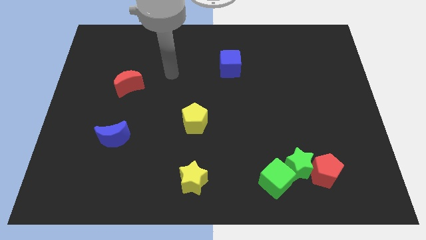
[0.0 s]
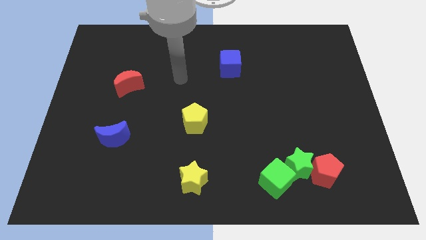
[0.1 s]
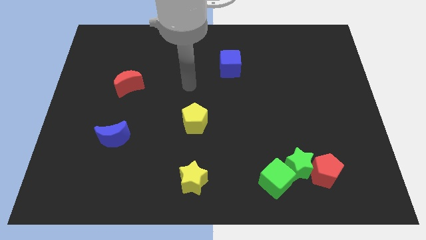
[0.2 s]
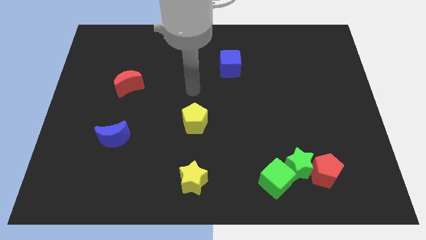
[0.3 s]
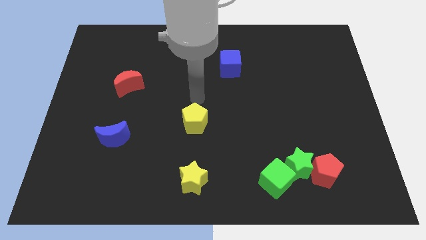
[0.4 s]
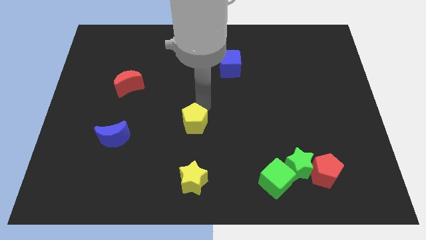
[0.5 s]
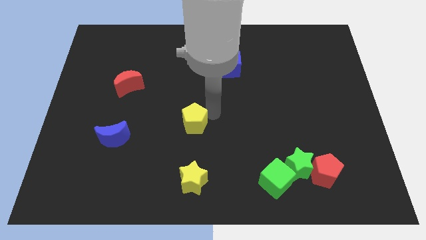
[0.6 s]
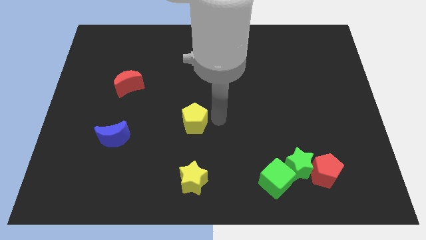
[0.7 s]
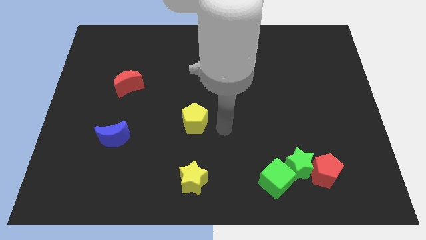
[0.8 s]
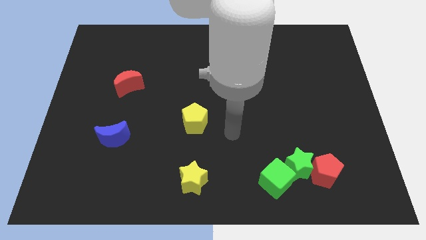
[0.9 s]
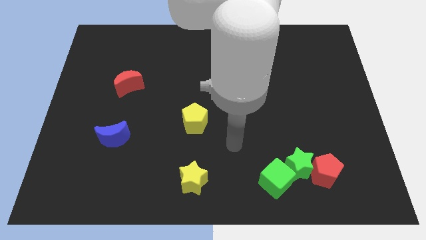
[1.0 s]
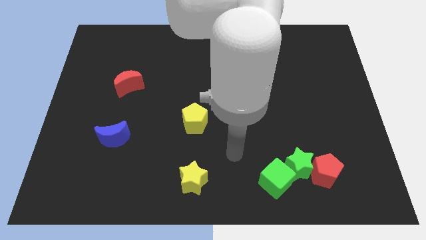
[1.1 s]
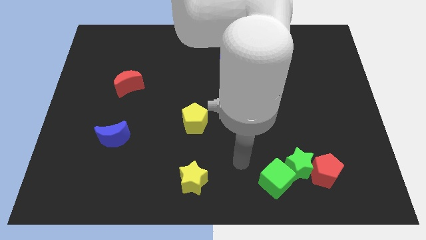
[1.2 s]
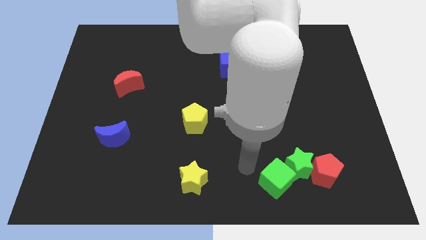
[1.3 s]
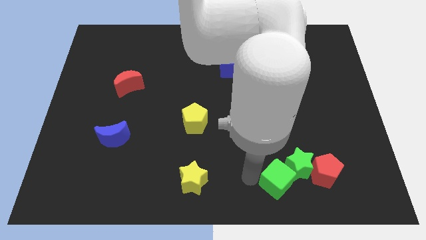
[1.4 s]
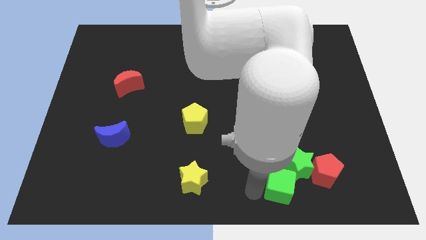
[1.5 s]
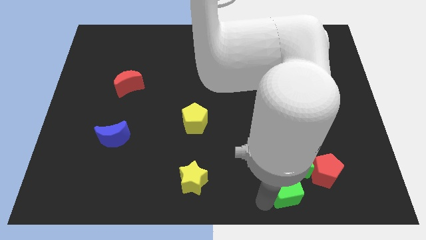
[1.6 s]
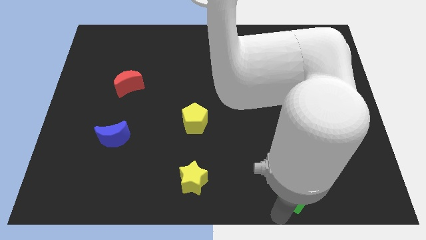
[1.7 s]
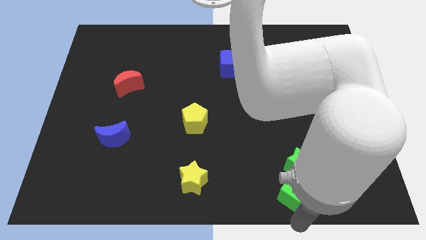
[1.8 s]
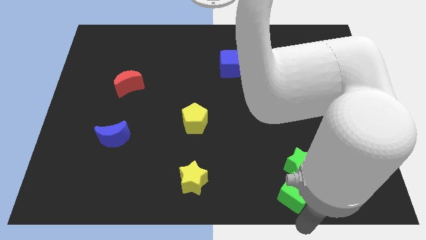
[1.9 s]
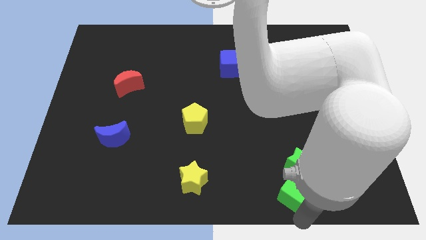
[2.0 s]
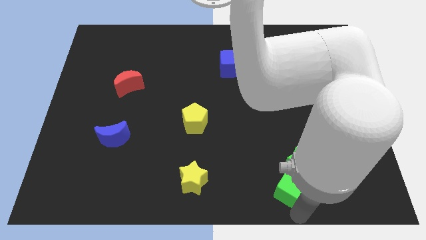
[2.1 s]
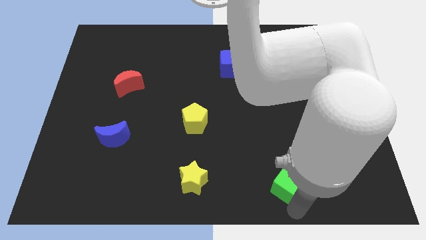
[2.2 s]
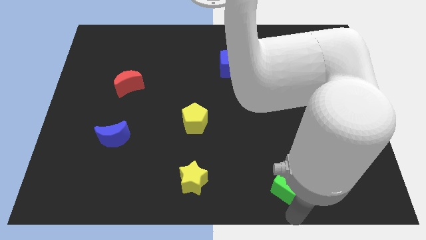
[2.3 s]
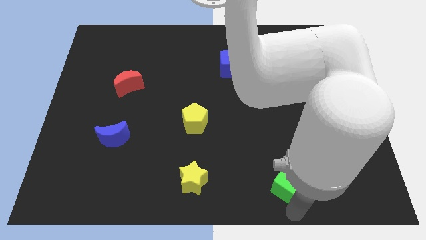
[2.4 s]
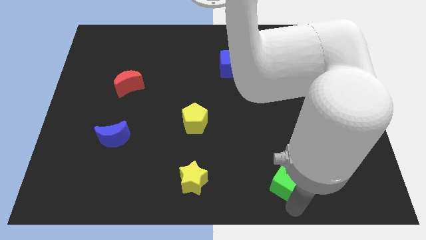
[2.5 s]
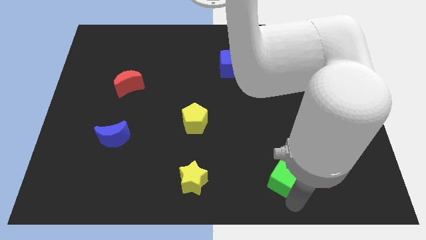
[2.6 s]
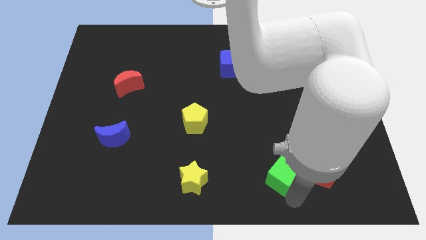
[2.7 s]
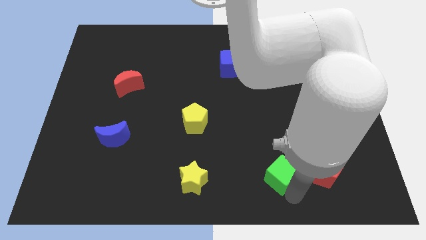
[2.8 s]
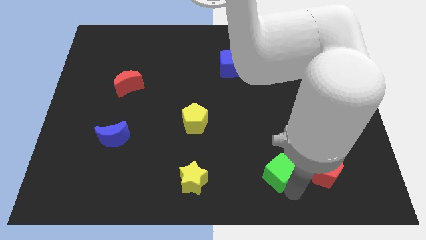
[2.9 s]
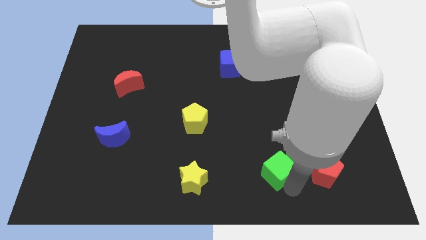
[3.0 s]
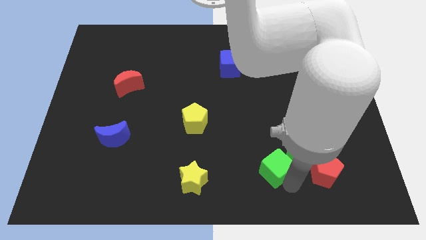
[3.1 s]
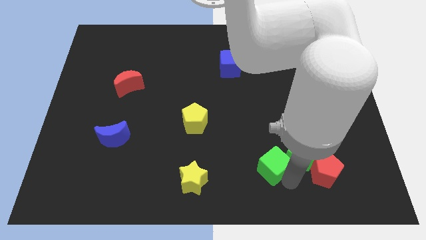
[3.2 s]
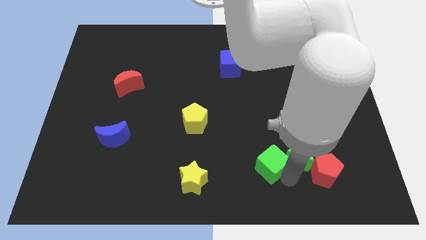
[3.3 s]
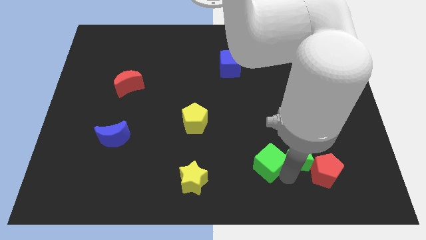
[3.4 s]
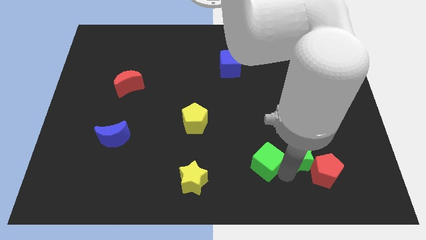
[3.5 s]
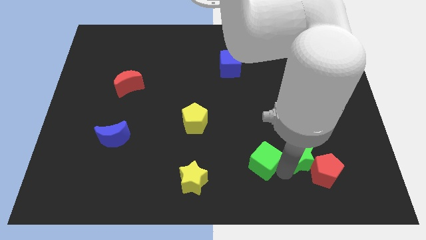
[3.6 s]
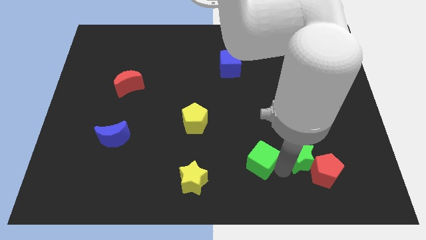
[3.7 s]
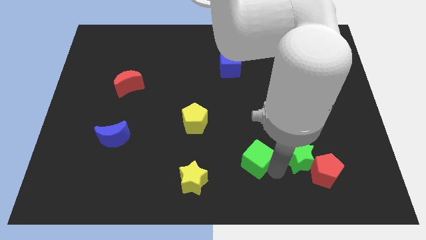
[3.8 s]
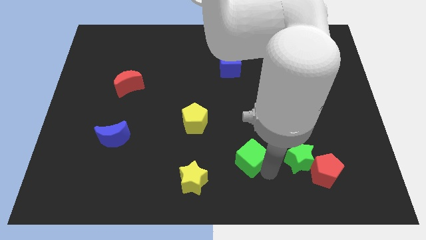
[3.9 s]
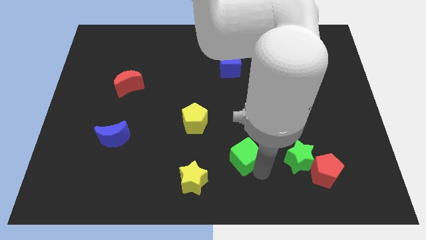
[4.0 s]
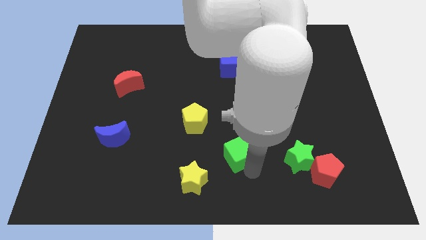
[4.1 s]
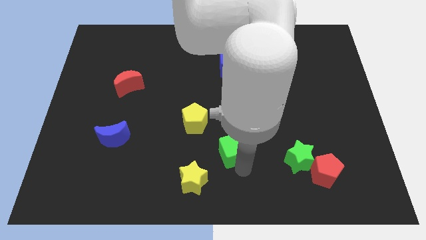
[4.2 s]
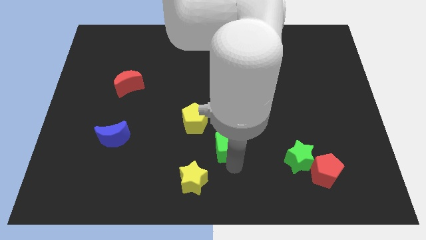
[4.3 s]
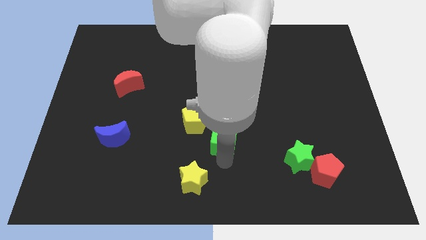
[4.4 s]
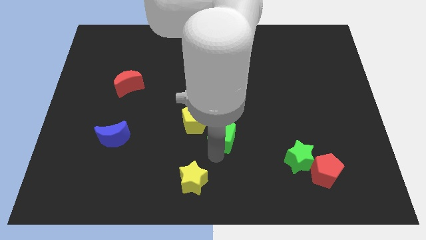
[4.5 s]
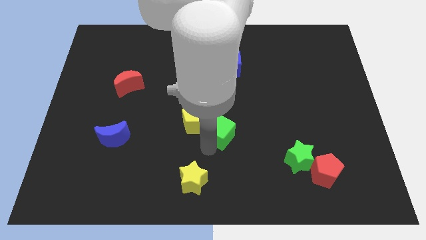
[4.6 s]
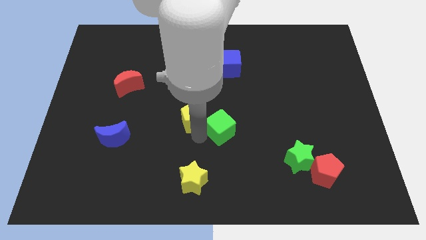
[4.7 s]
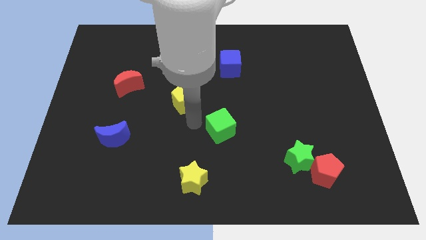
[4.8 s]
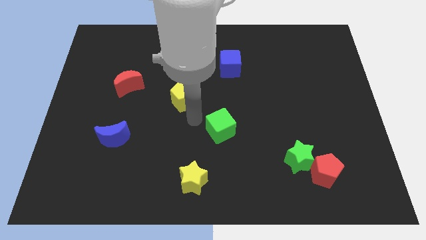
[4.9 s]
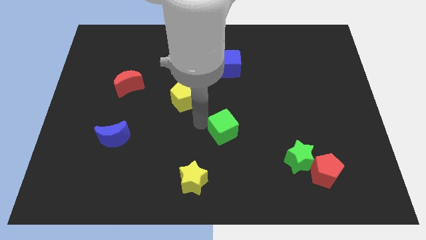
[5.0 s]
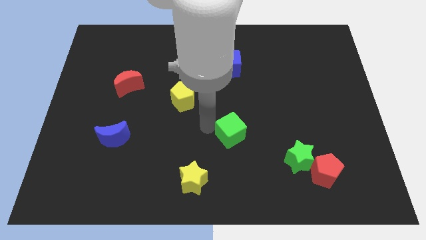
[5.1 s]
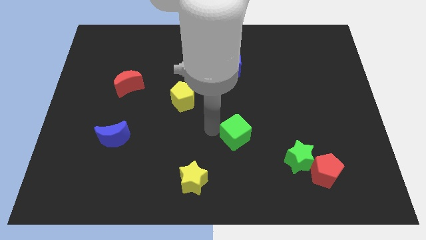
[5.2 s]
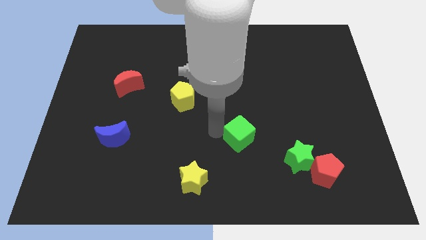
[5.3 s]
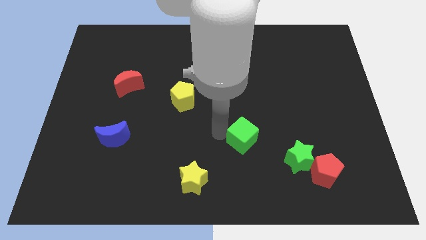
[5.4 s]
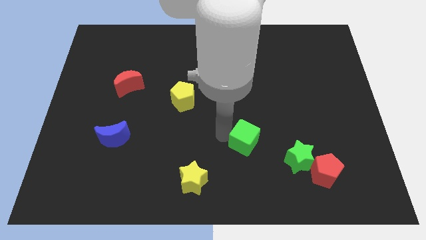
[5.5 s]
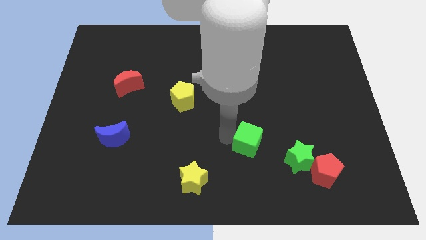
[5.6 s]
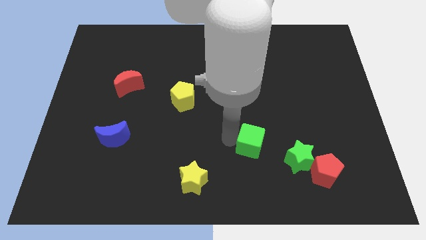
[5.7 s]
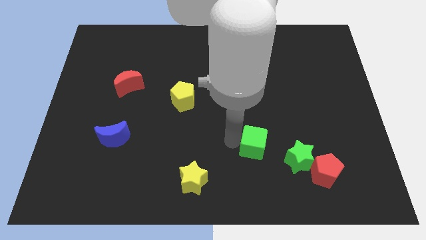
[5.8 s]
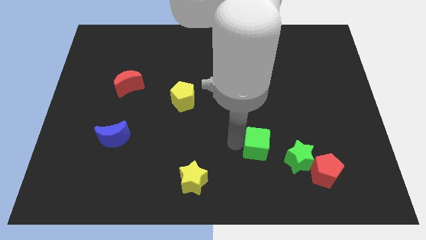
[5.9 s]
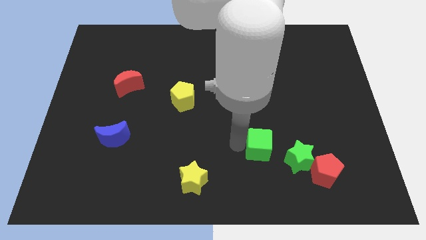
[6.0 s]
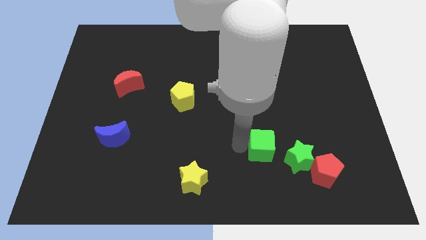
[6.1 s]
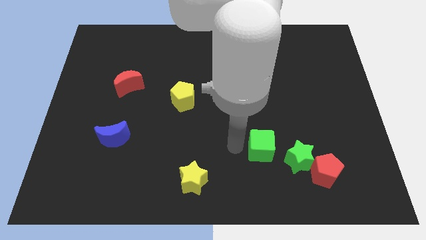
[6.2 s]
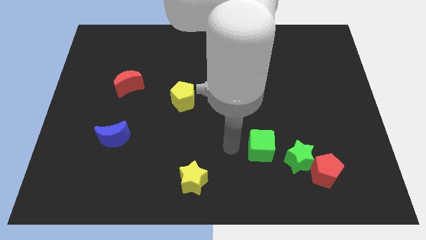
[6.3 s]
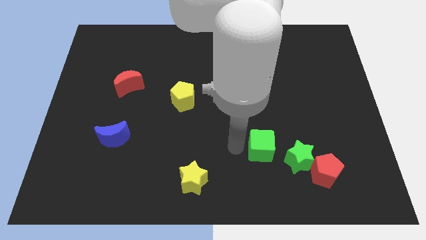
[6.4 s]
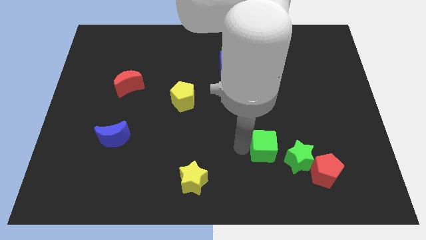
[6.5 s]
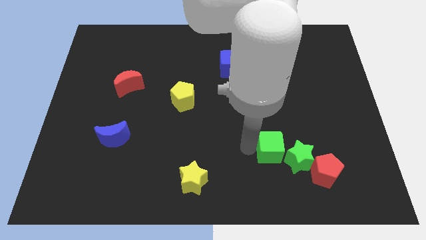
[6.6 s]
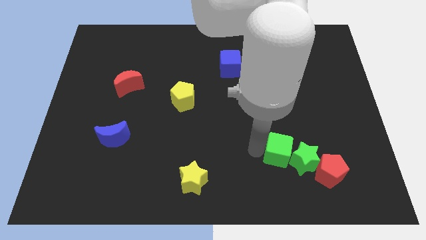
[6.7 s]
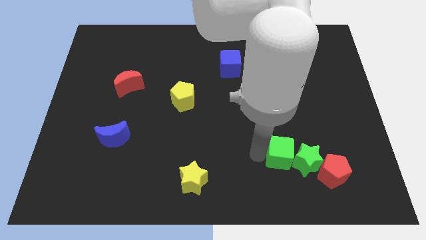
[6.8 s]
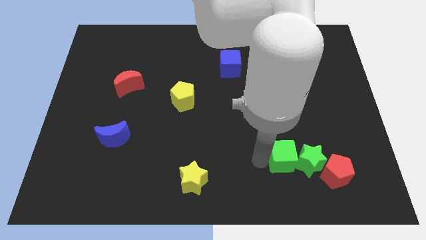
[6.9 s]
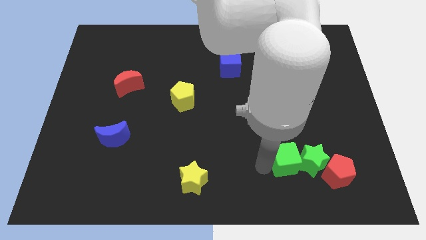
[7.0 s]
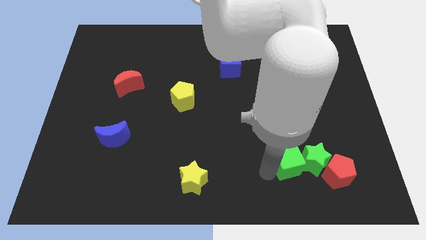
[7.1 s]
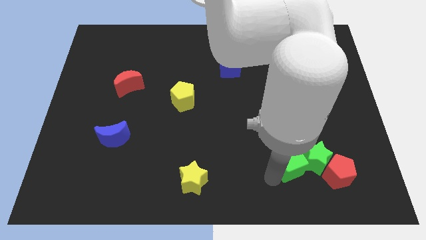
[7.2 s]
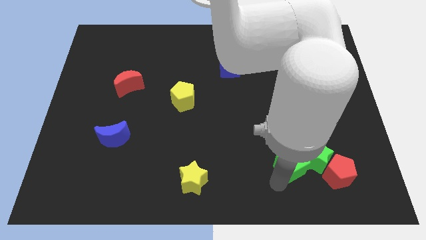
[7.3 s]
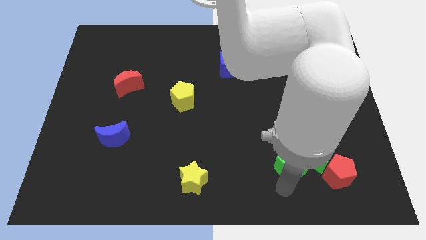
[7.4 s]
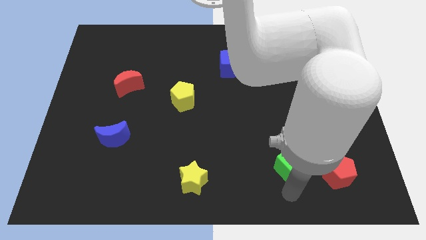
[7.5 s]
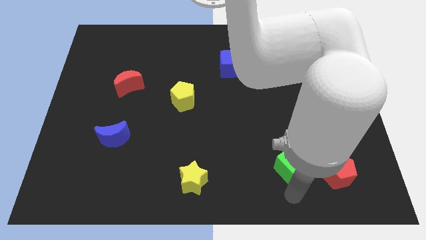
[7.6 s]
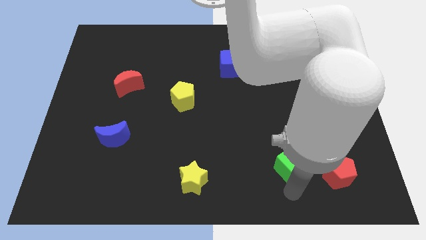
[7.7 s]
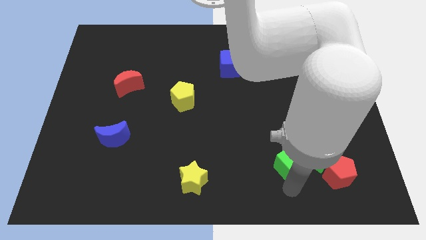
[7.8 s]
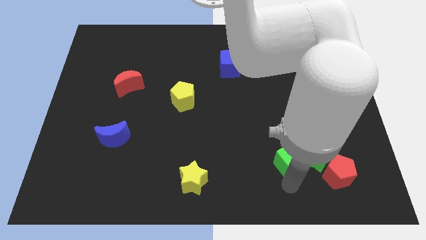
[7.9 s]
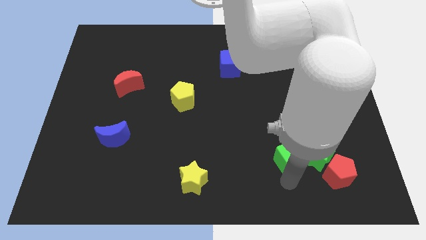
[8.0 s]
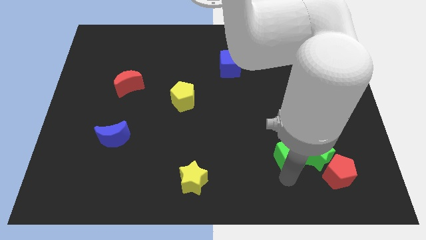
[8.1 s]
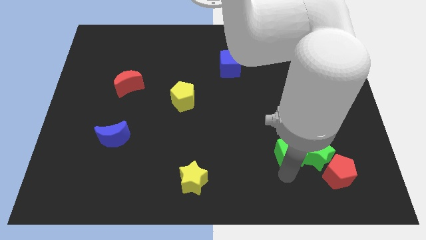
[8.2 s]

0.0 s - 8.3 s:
slightly move the green cube up and to the right
